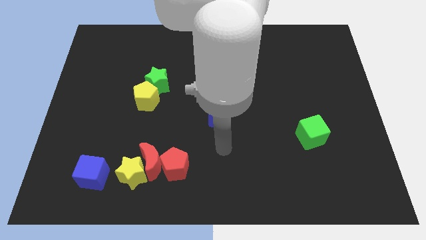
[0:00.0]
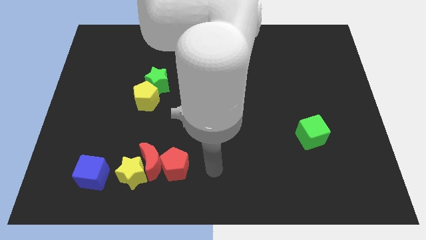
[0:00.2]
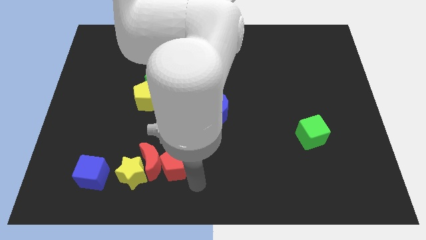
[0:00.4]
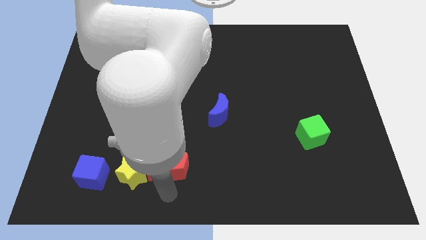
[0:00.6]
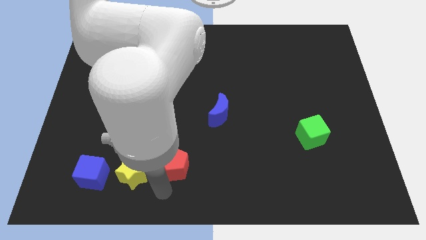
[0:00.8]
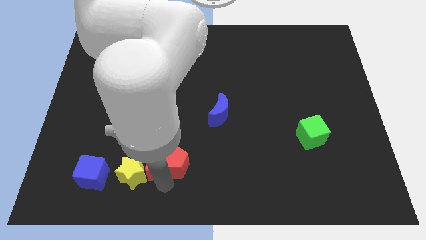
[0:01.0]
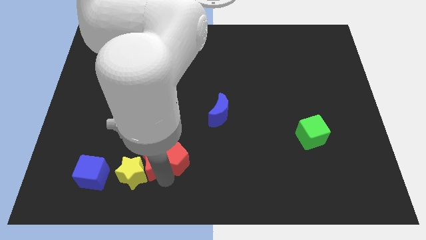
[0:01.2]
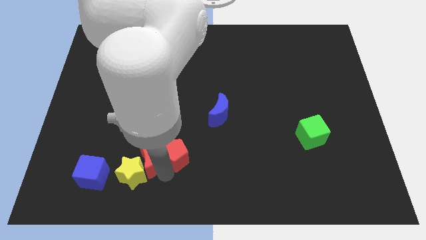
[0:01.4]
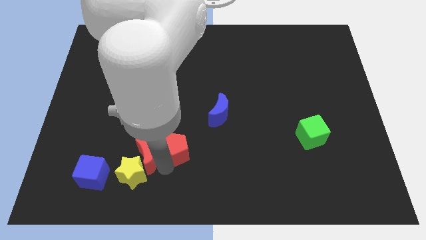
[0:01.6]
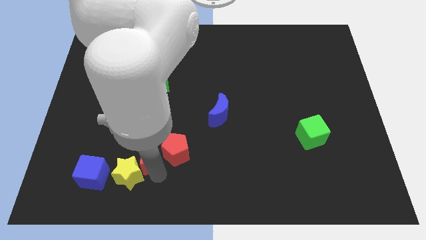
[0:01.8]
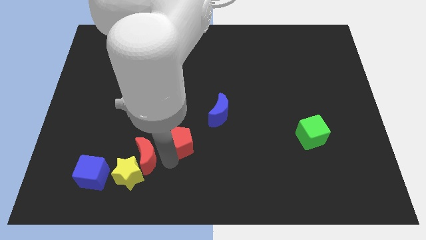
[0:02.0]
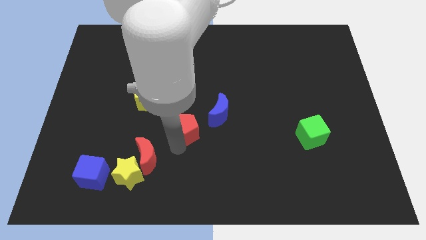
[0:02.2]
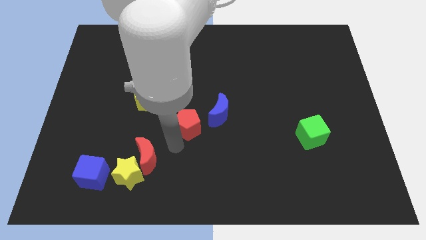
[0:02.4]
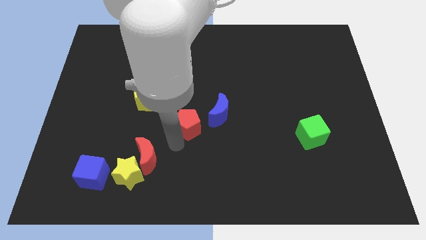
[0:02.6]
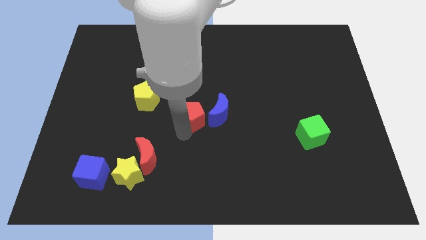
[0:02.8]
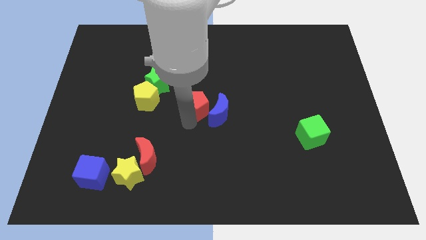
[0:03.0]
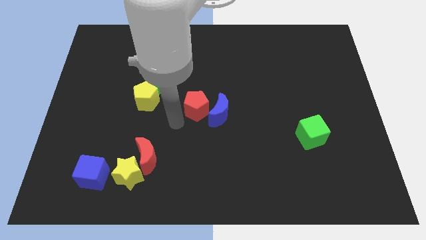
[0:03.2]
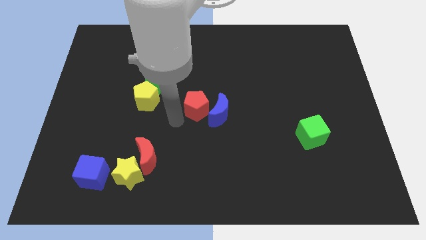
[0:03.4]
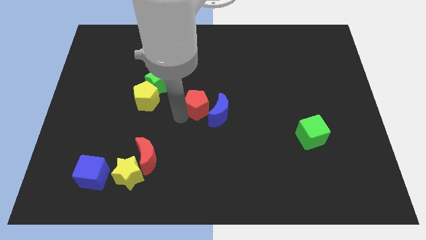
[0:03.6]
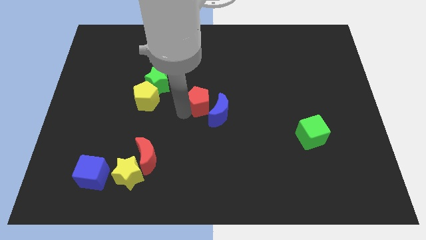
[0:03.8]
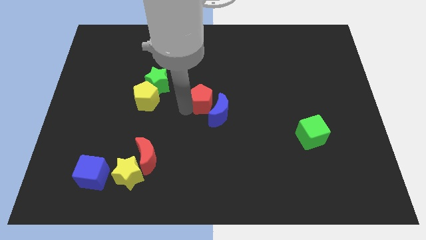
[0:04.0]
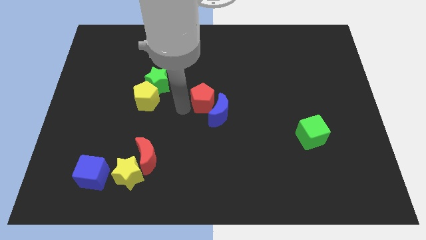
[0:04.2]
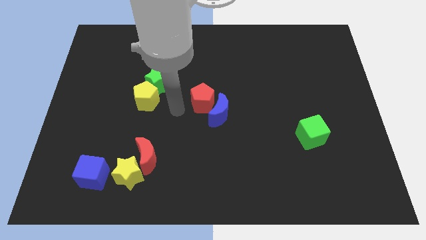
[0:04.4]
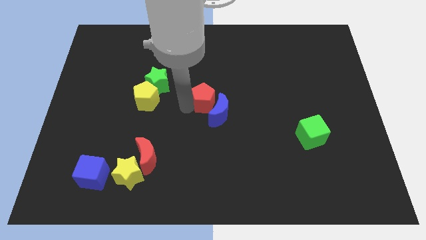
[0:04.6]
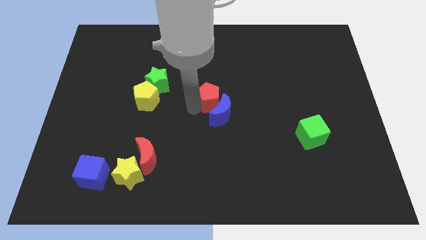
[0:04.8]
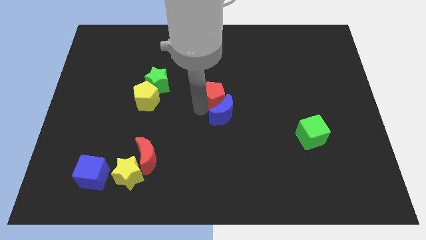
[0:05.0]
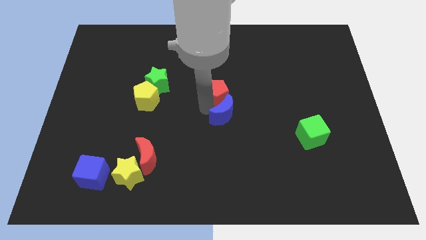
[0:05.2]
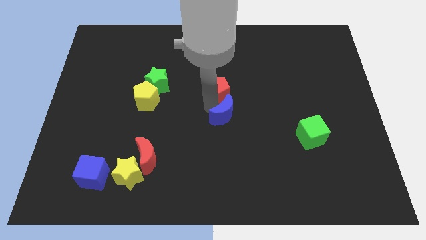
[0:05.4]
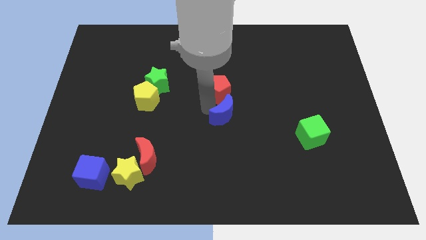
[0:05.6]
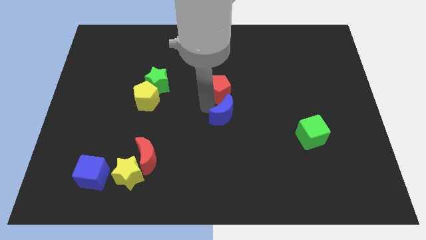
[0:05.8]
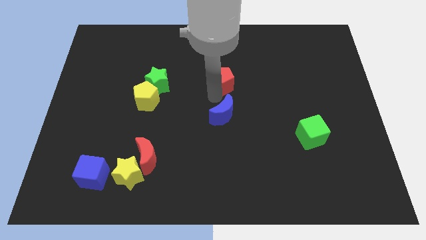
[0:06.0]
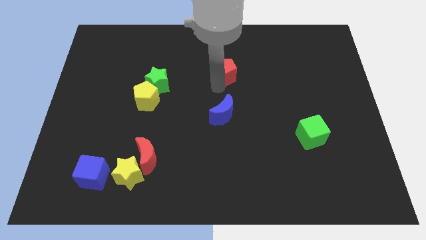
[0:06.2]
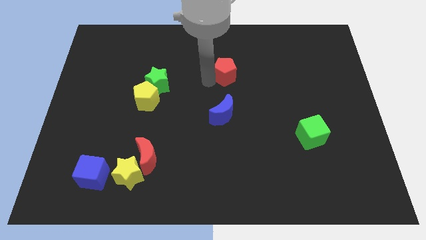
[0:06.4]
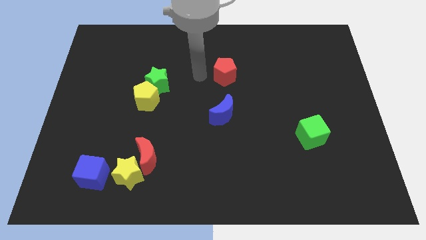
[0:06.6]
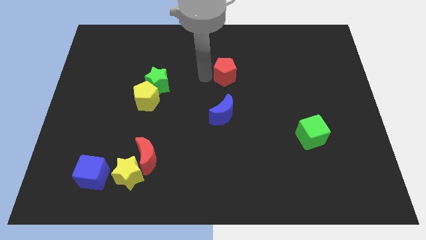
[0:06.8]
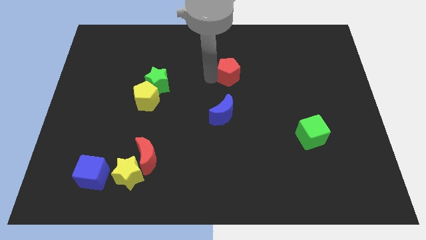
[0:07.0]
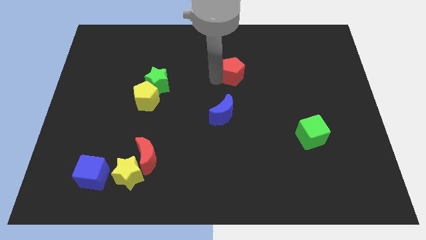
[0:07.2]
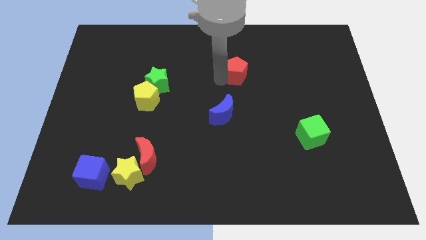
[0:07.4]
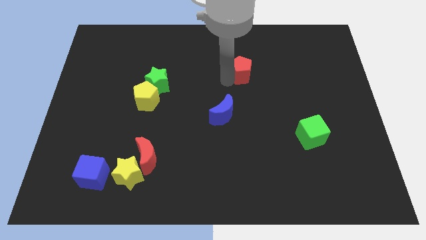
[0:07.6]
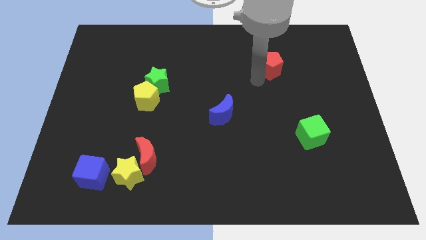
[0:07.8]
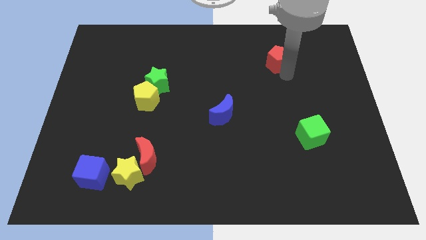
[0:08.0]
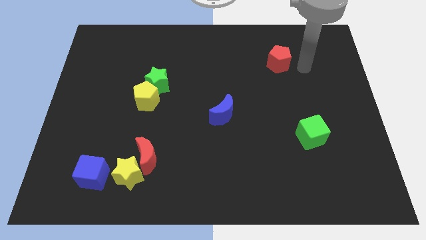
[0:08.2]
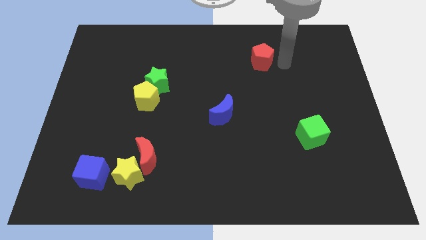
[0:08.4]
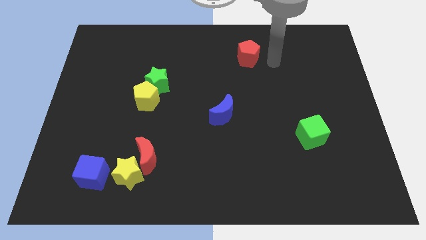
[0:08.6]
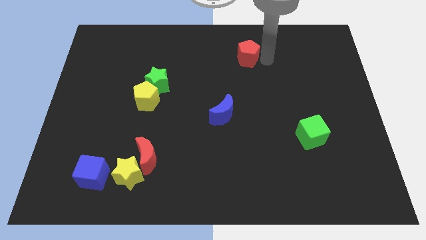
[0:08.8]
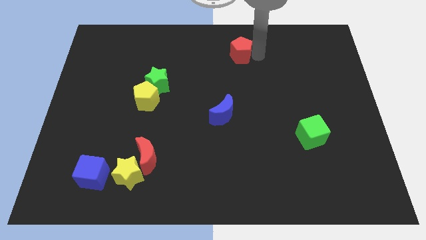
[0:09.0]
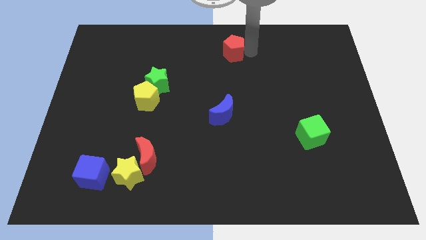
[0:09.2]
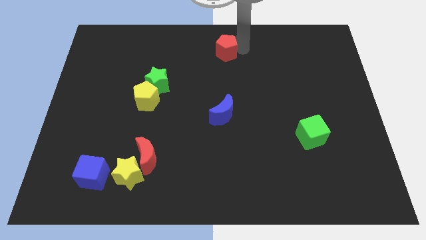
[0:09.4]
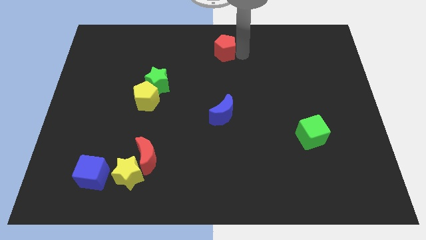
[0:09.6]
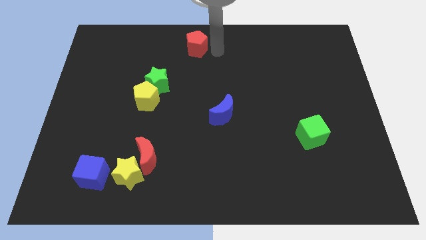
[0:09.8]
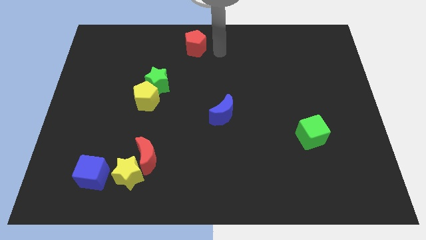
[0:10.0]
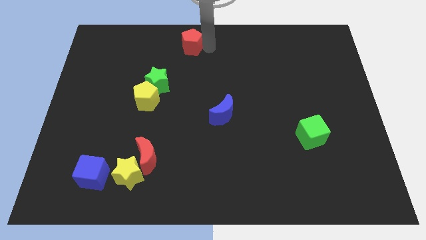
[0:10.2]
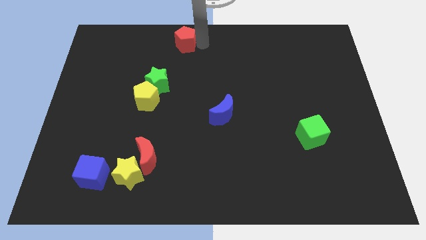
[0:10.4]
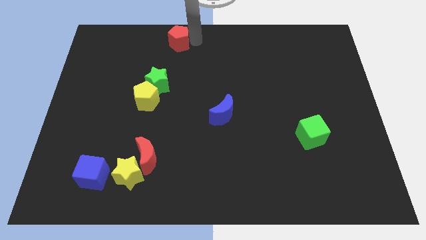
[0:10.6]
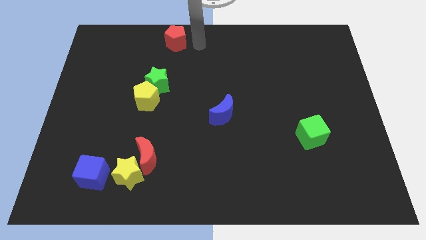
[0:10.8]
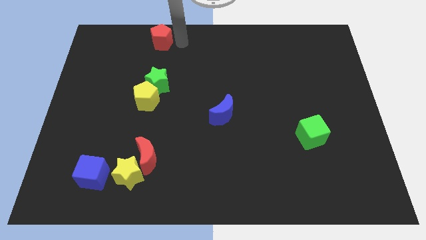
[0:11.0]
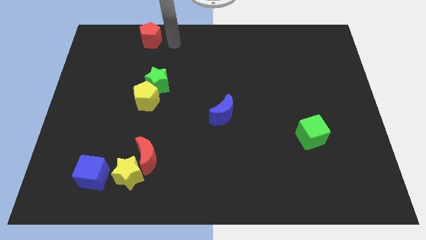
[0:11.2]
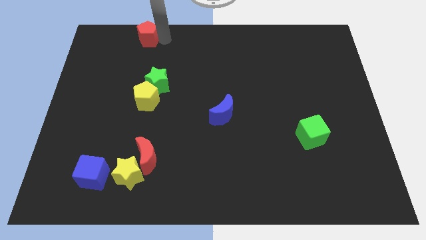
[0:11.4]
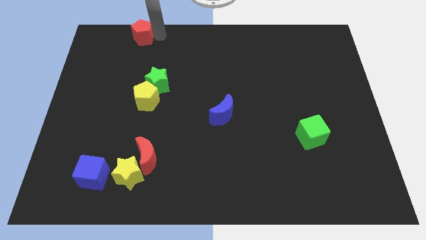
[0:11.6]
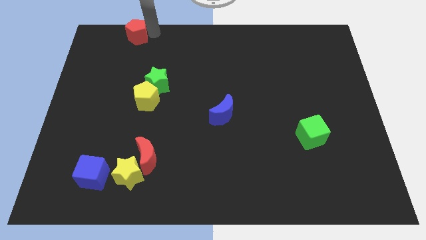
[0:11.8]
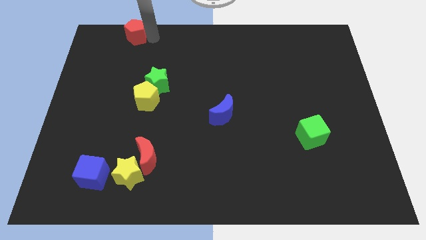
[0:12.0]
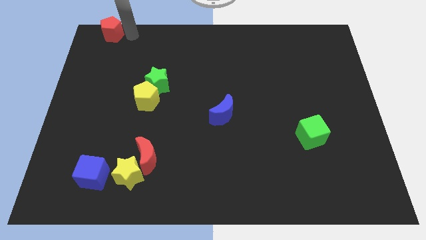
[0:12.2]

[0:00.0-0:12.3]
push the red pentagon to the top left
